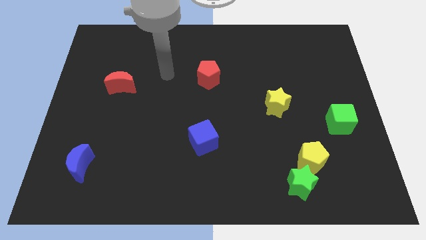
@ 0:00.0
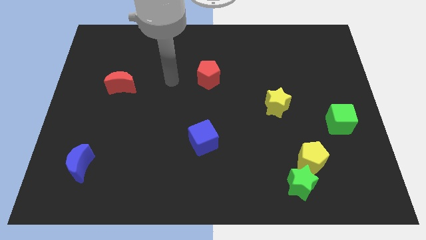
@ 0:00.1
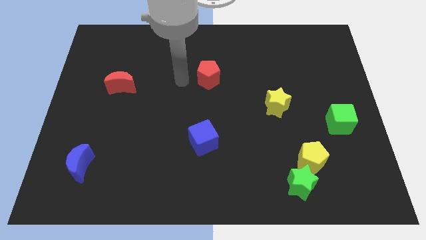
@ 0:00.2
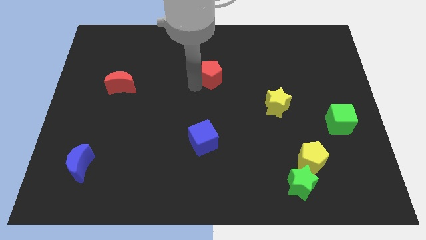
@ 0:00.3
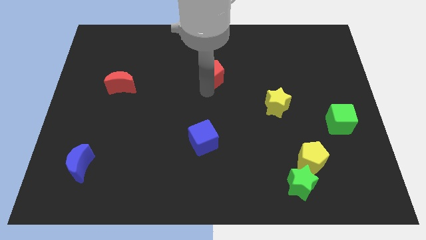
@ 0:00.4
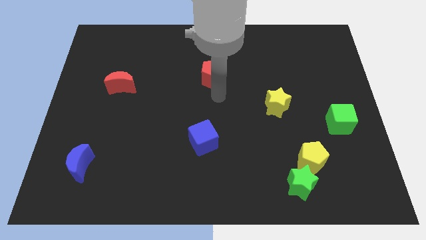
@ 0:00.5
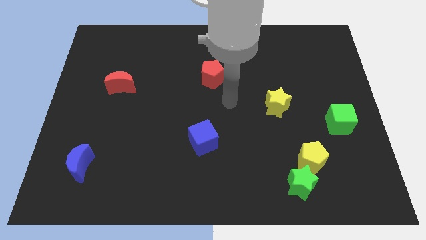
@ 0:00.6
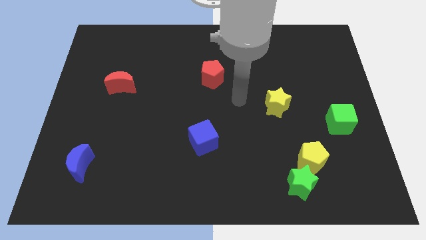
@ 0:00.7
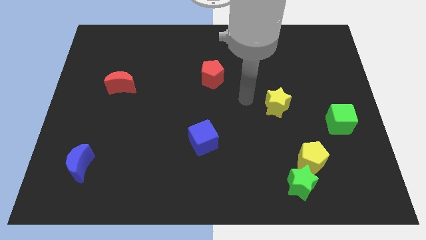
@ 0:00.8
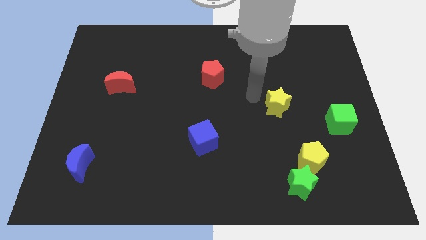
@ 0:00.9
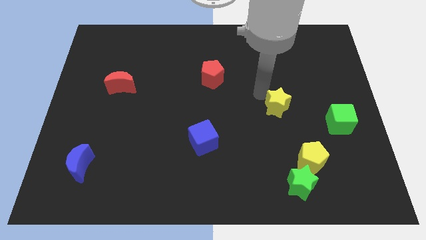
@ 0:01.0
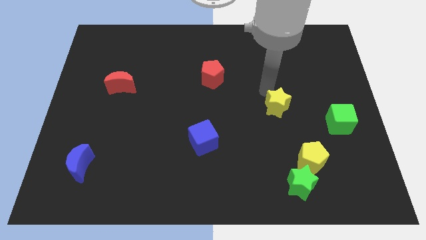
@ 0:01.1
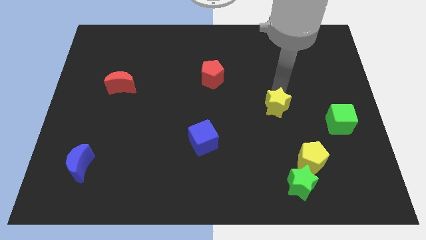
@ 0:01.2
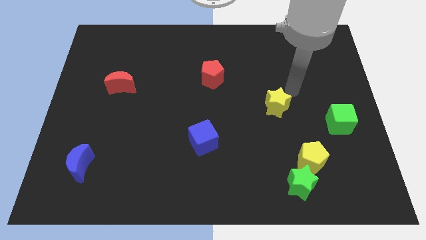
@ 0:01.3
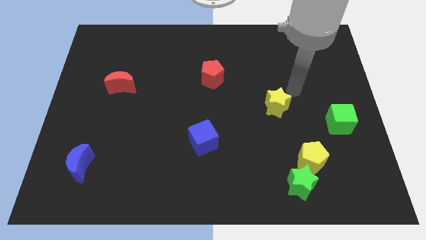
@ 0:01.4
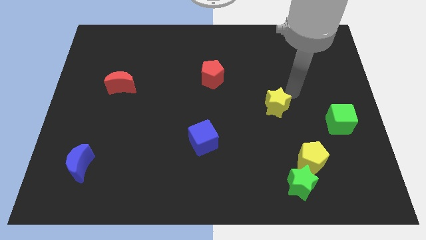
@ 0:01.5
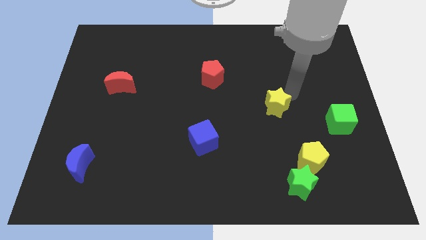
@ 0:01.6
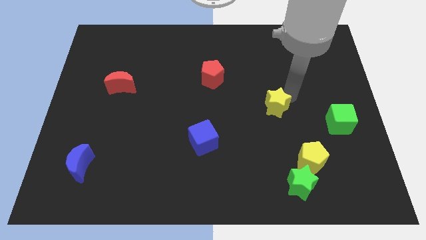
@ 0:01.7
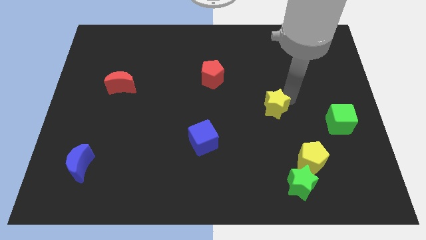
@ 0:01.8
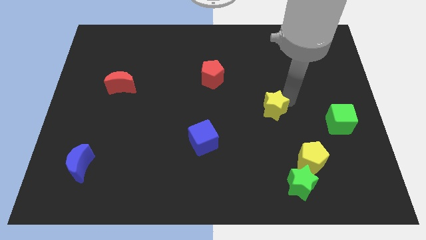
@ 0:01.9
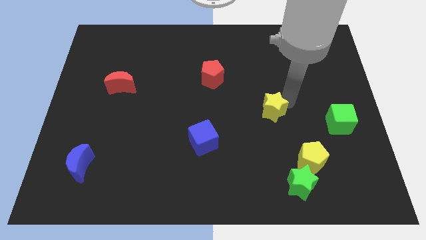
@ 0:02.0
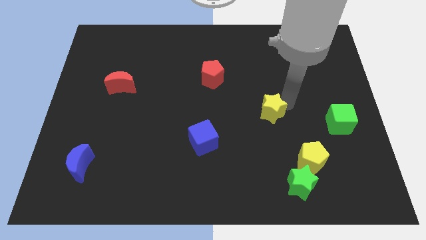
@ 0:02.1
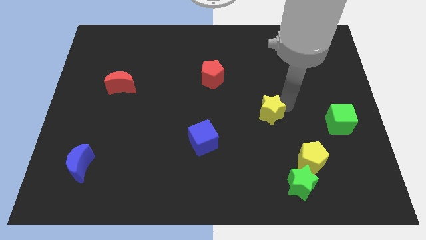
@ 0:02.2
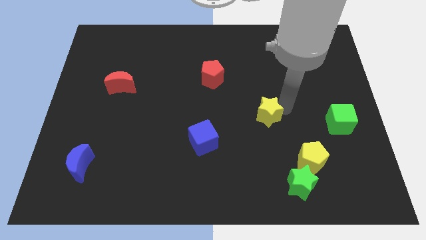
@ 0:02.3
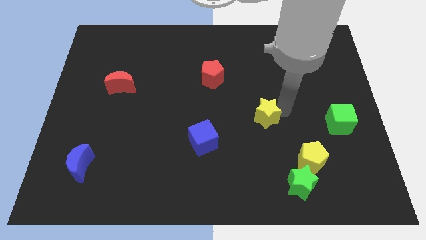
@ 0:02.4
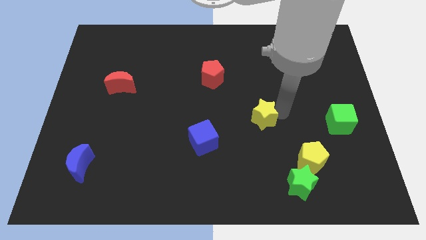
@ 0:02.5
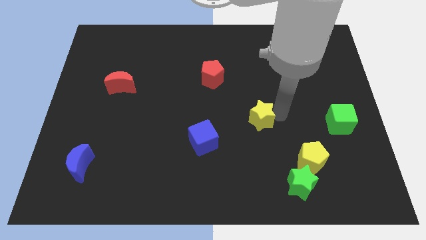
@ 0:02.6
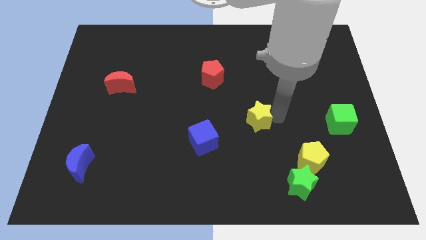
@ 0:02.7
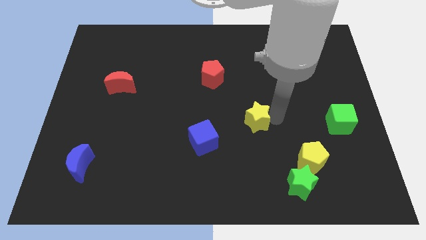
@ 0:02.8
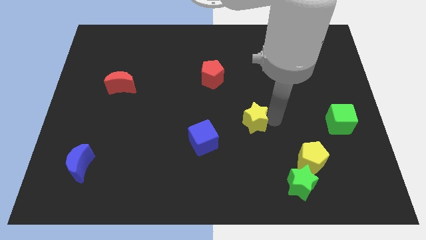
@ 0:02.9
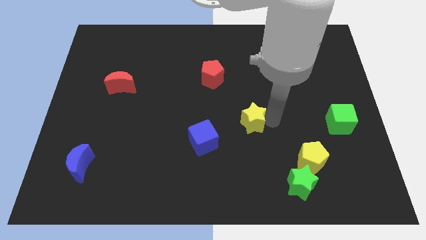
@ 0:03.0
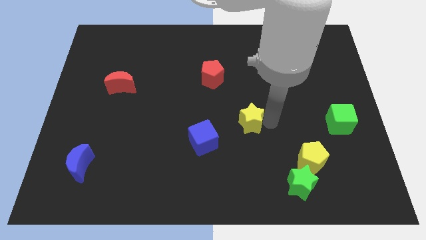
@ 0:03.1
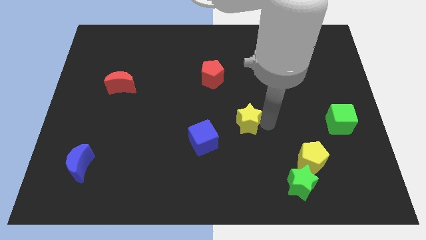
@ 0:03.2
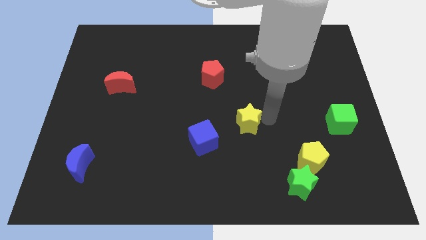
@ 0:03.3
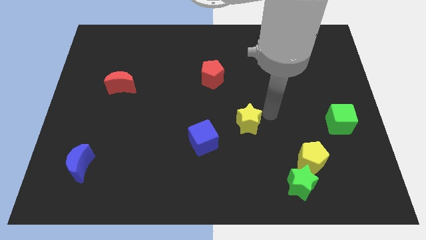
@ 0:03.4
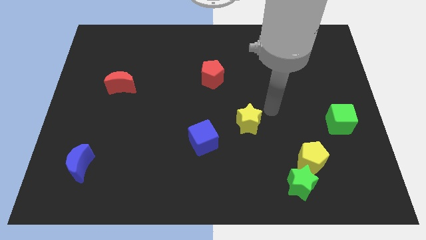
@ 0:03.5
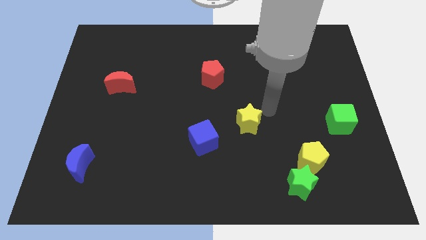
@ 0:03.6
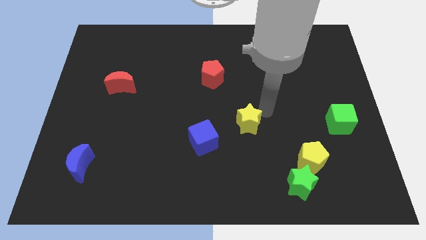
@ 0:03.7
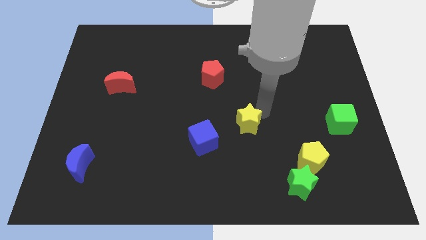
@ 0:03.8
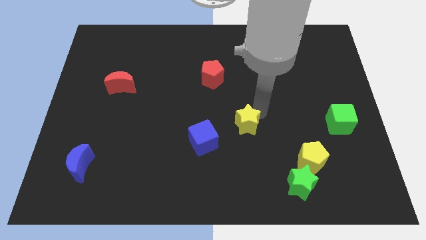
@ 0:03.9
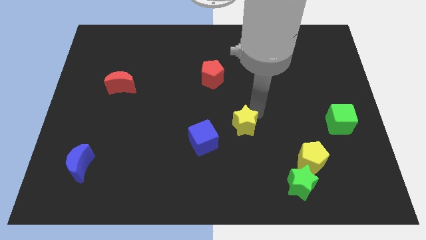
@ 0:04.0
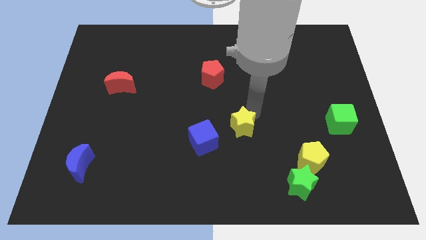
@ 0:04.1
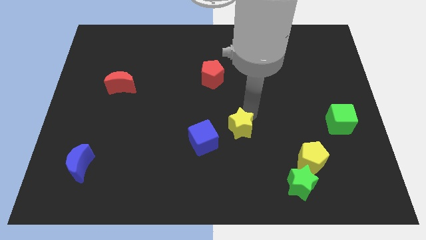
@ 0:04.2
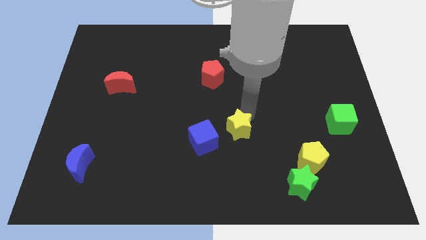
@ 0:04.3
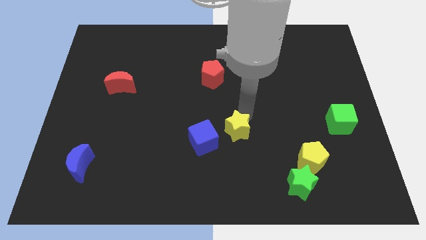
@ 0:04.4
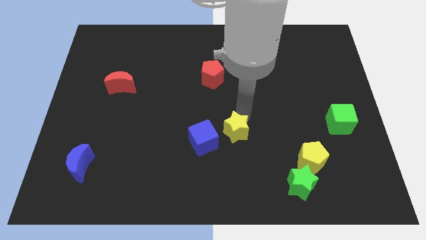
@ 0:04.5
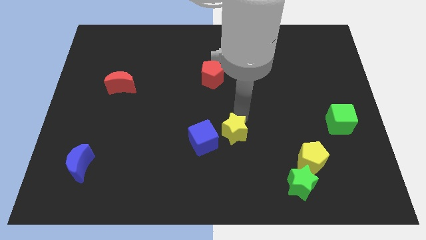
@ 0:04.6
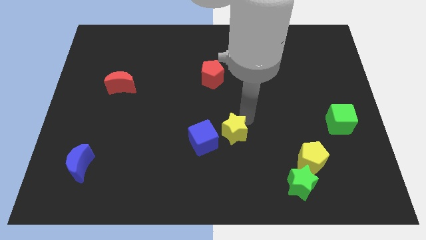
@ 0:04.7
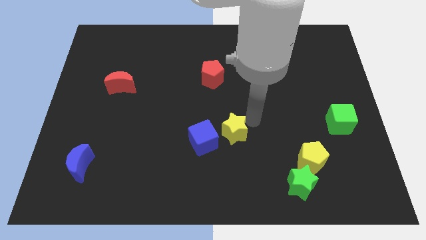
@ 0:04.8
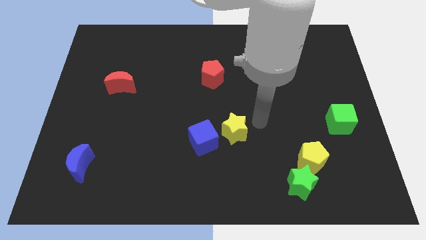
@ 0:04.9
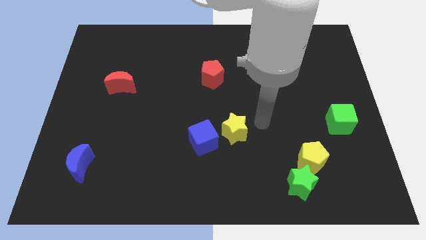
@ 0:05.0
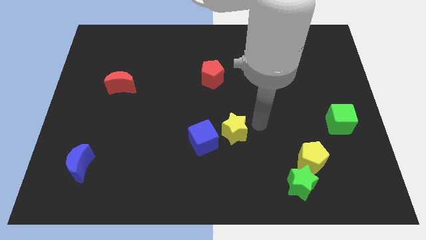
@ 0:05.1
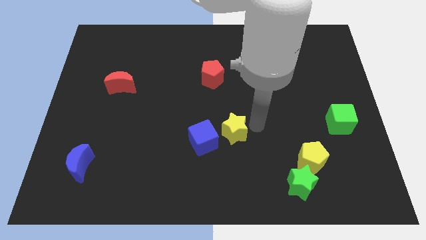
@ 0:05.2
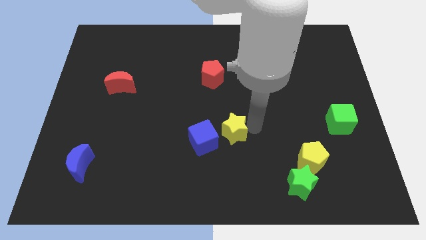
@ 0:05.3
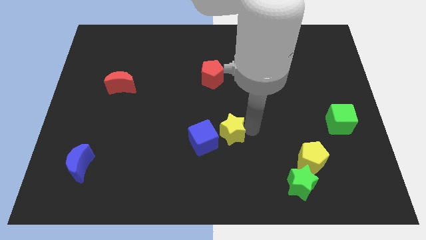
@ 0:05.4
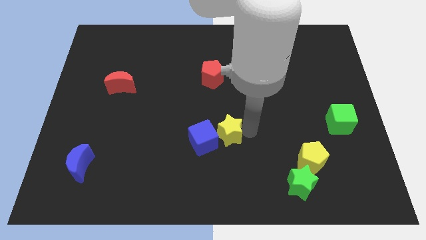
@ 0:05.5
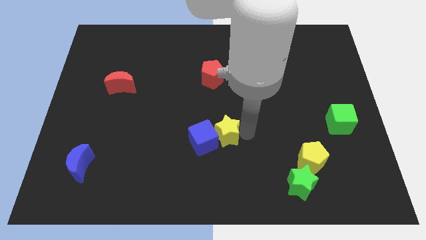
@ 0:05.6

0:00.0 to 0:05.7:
move the yellow star to the blue cube
